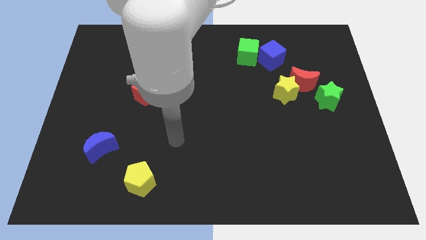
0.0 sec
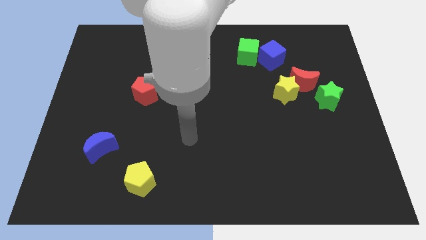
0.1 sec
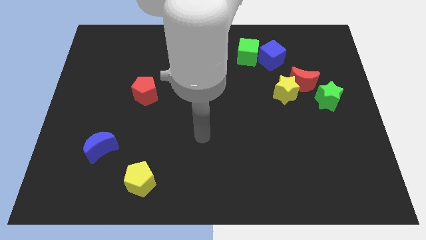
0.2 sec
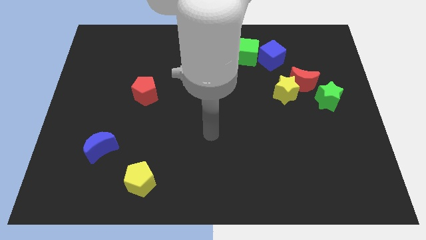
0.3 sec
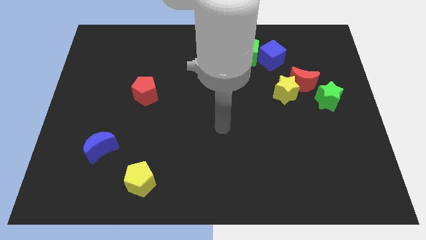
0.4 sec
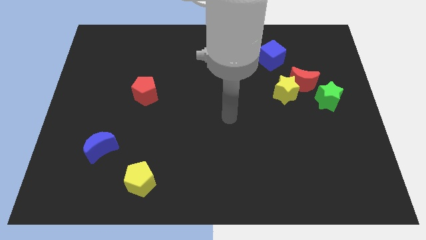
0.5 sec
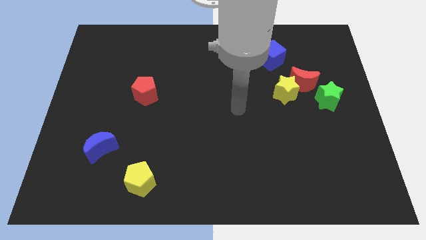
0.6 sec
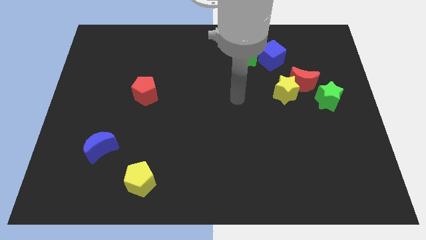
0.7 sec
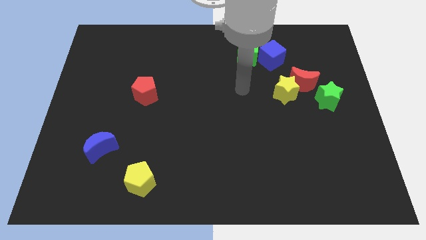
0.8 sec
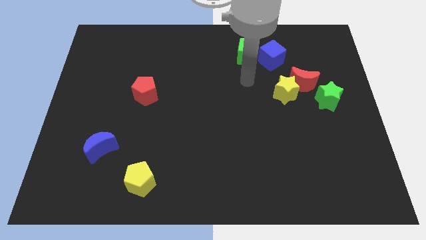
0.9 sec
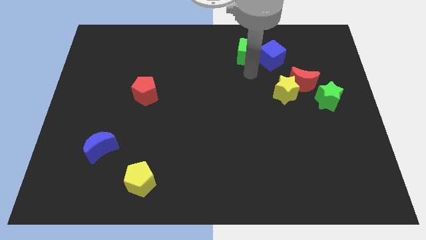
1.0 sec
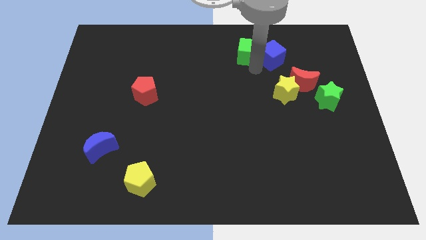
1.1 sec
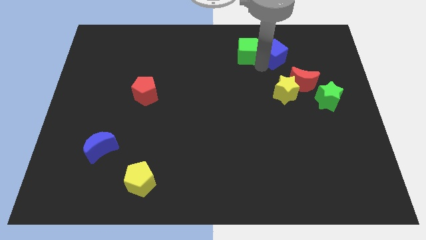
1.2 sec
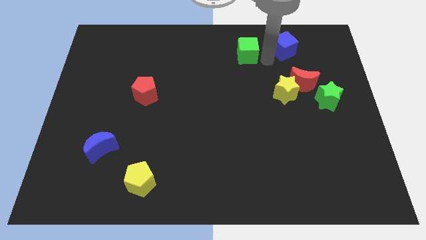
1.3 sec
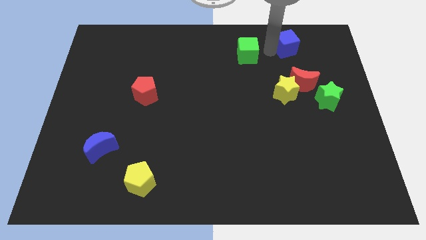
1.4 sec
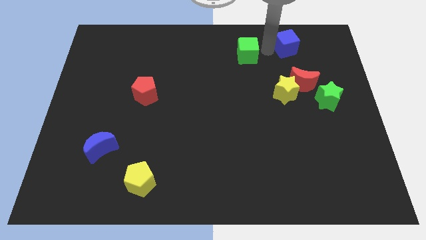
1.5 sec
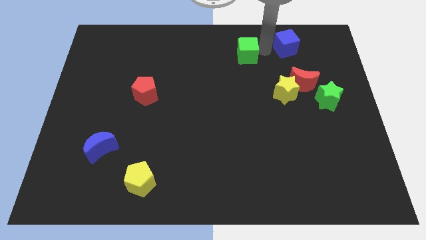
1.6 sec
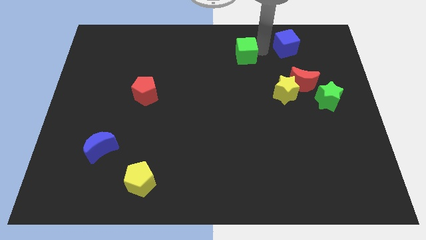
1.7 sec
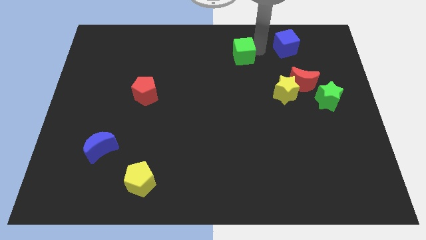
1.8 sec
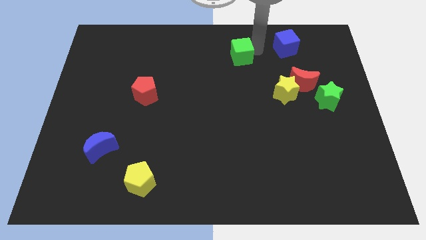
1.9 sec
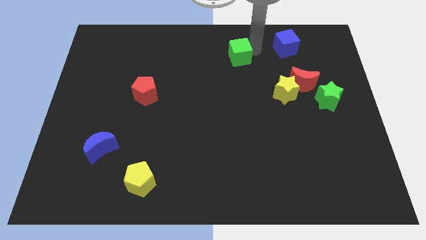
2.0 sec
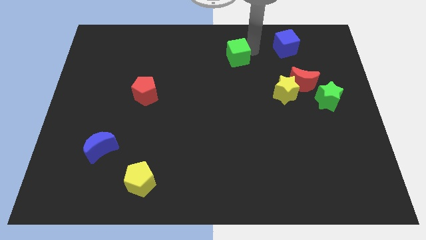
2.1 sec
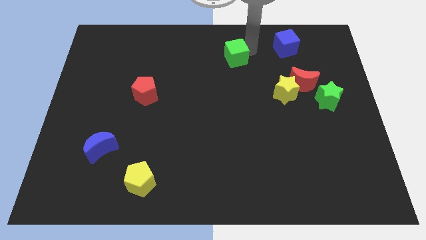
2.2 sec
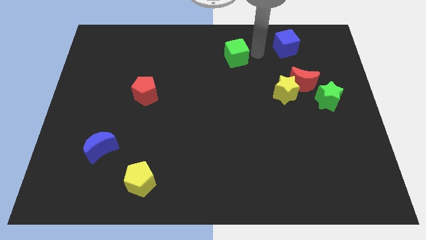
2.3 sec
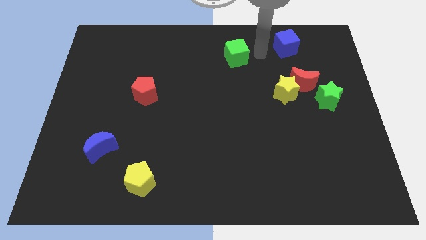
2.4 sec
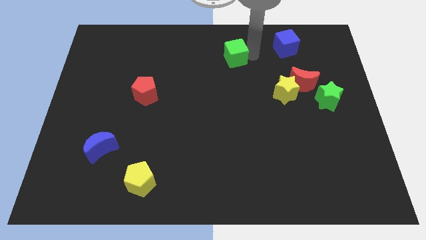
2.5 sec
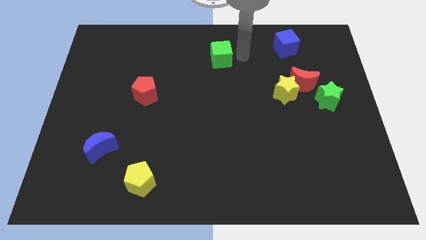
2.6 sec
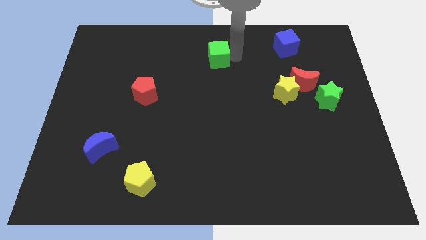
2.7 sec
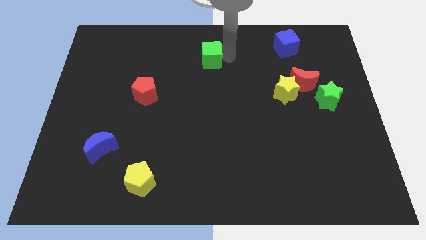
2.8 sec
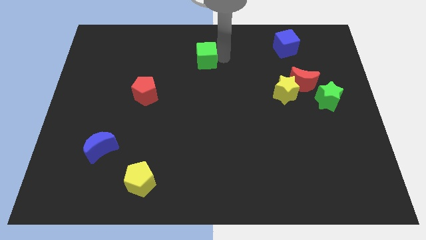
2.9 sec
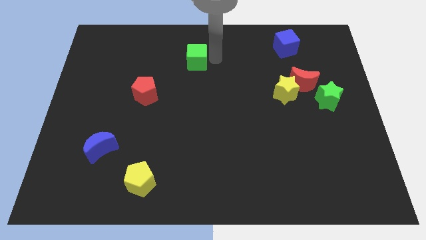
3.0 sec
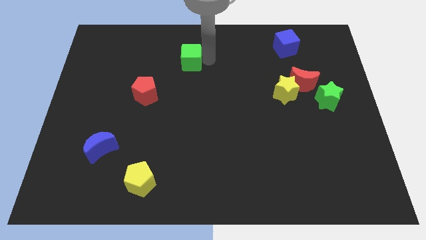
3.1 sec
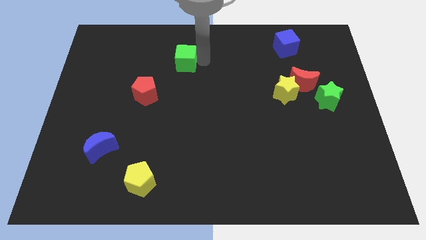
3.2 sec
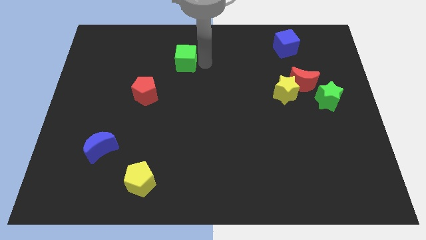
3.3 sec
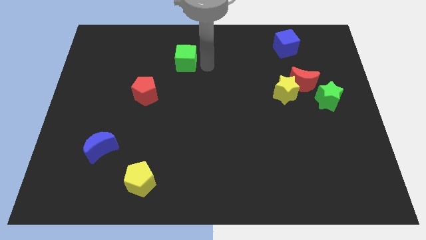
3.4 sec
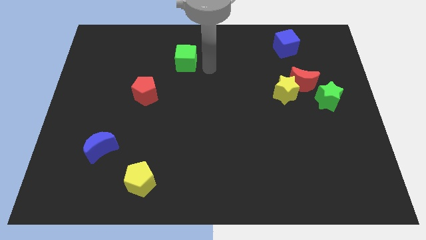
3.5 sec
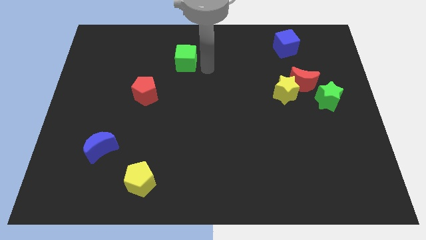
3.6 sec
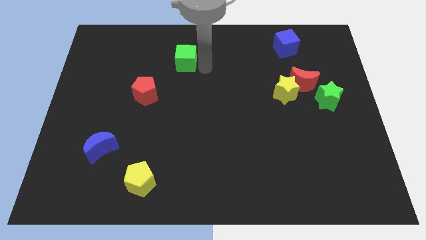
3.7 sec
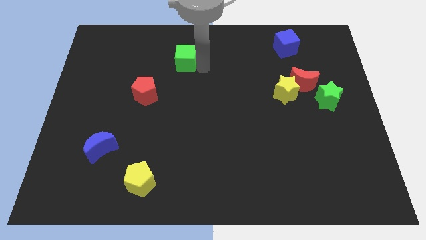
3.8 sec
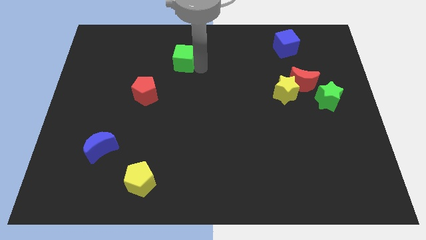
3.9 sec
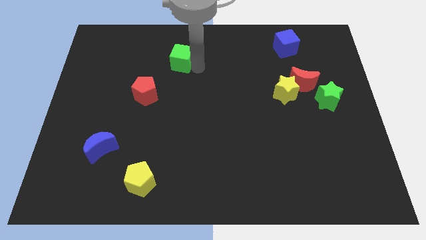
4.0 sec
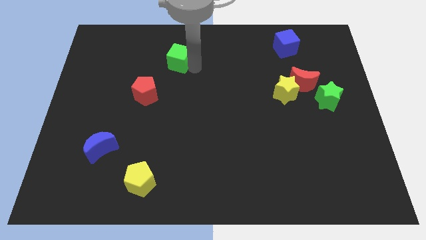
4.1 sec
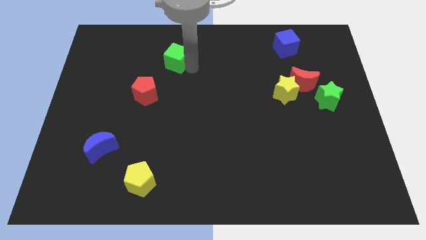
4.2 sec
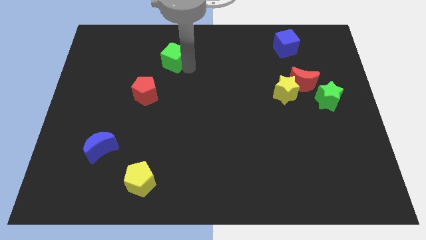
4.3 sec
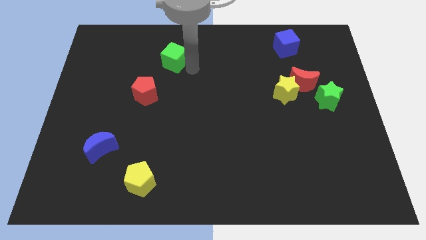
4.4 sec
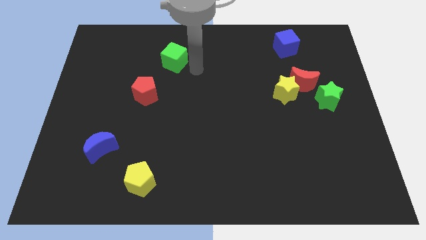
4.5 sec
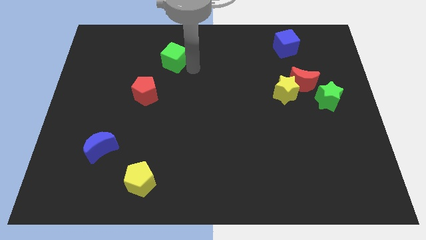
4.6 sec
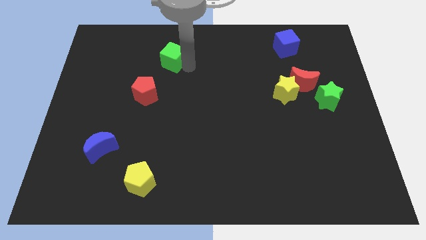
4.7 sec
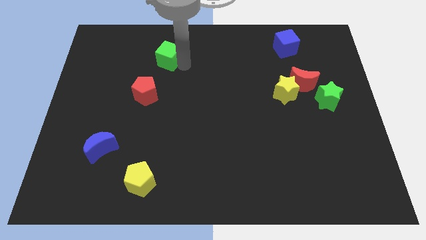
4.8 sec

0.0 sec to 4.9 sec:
push the green cube left

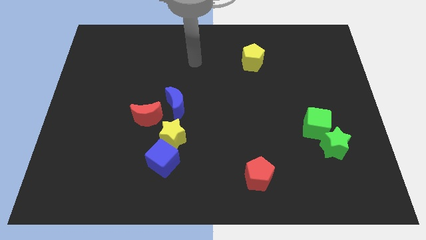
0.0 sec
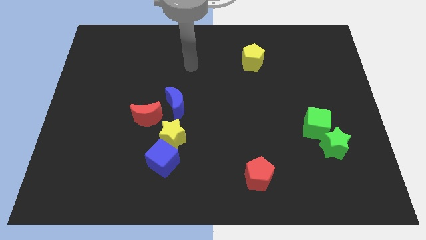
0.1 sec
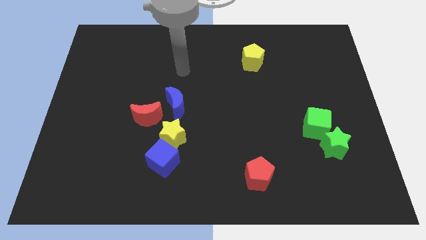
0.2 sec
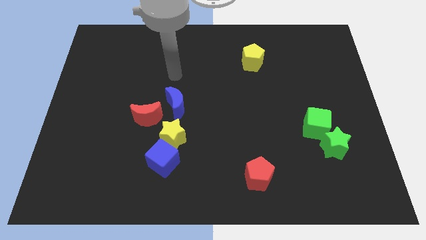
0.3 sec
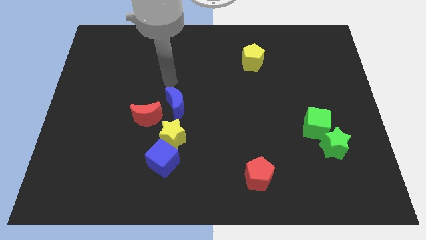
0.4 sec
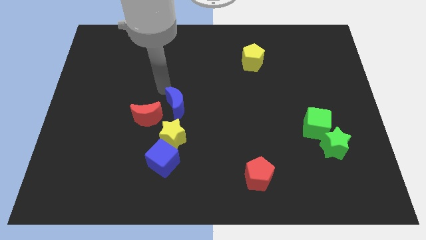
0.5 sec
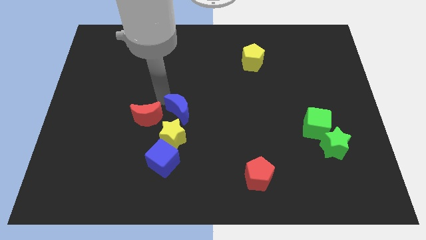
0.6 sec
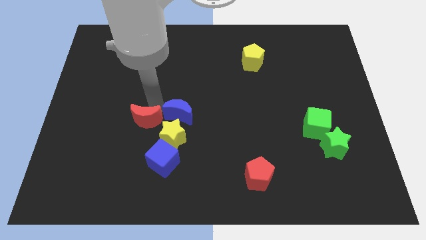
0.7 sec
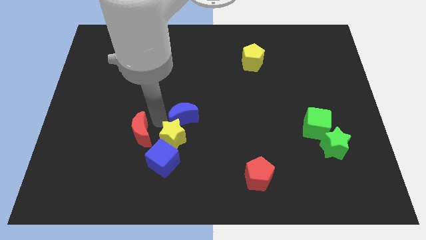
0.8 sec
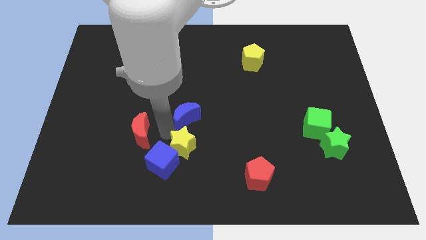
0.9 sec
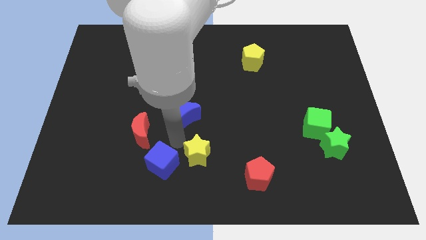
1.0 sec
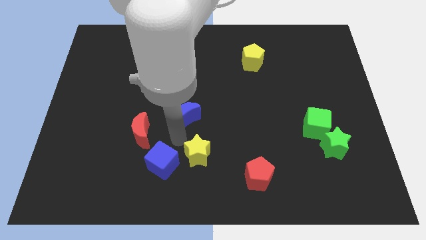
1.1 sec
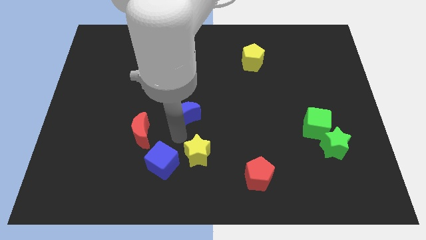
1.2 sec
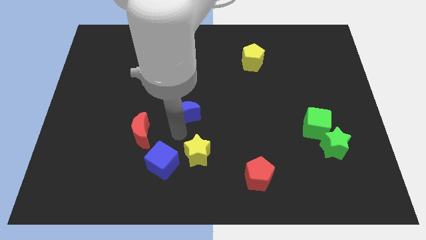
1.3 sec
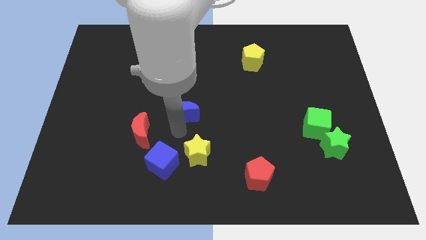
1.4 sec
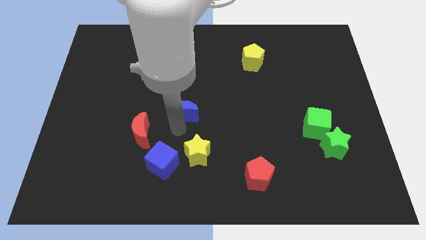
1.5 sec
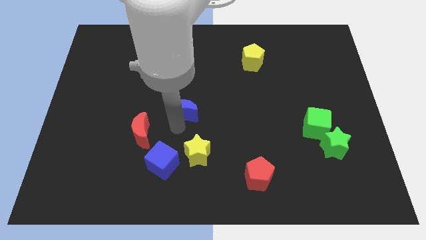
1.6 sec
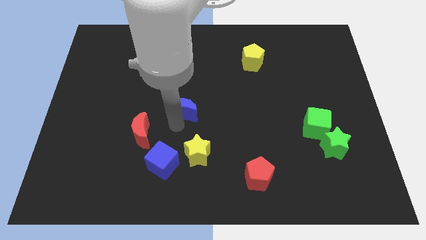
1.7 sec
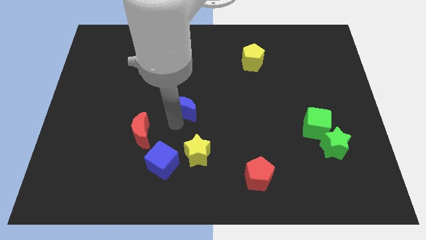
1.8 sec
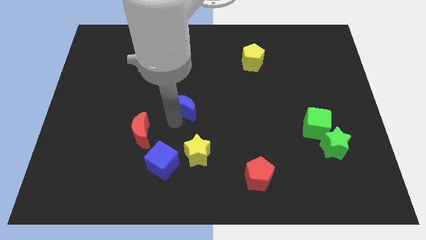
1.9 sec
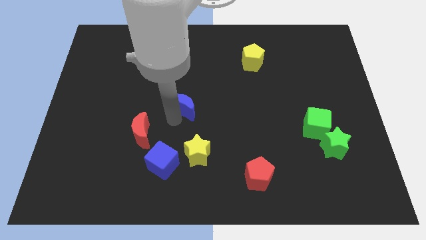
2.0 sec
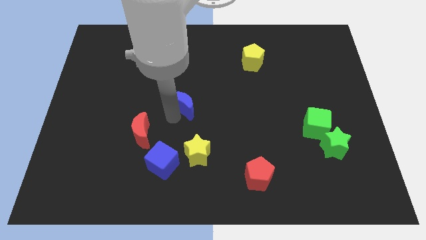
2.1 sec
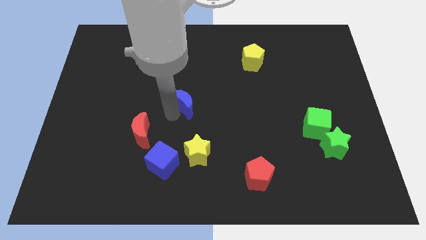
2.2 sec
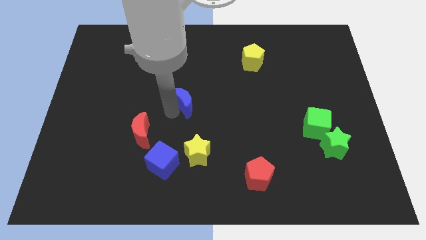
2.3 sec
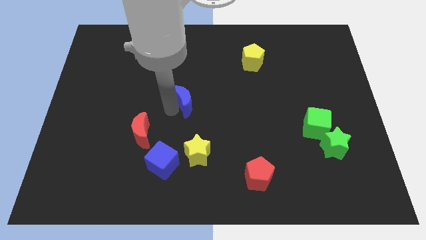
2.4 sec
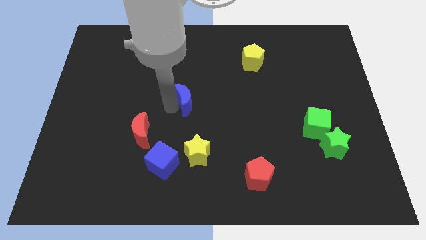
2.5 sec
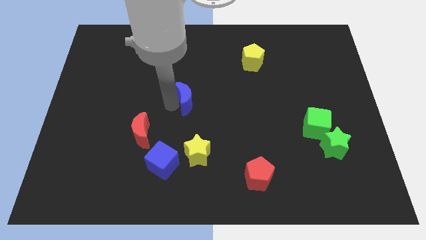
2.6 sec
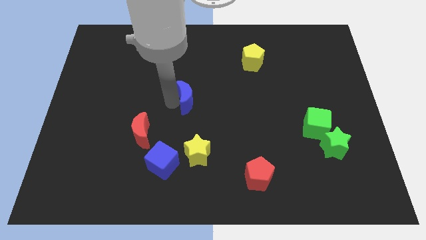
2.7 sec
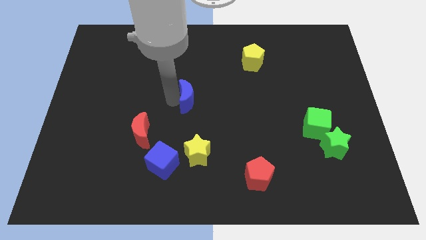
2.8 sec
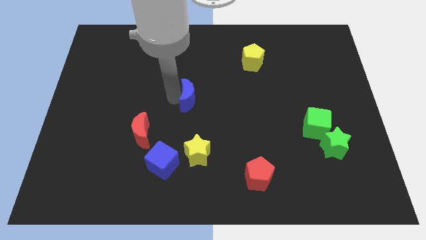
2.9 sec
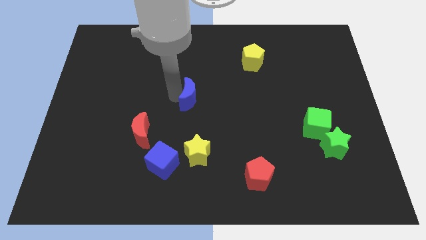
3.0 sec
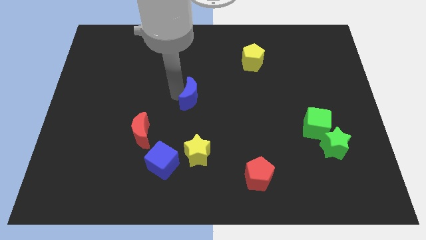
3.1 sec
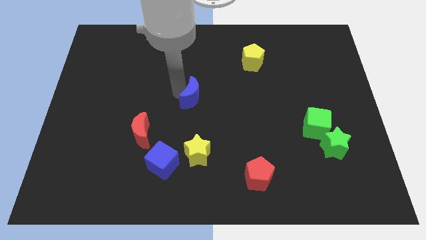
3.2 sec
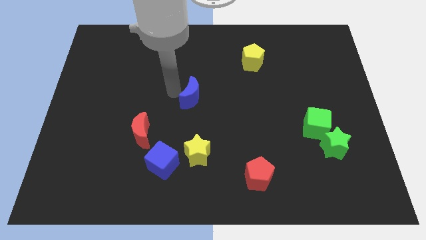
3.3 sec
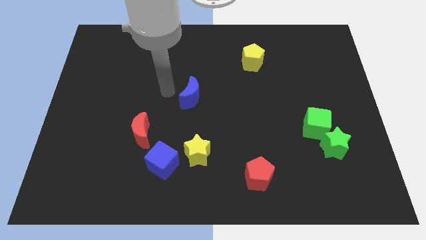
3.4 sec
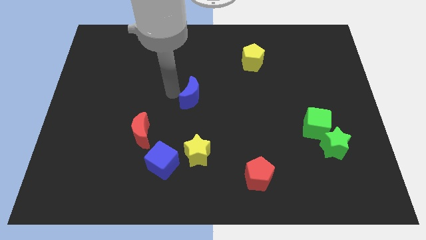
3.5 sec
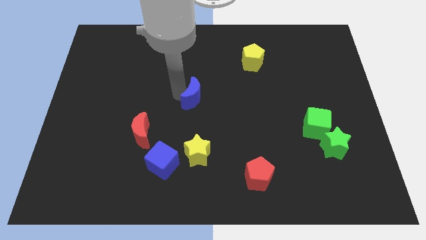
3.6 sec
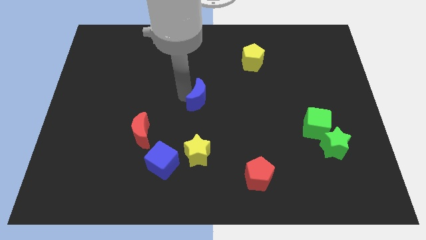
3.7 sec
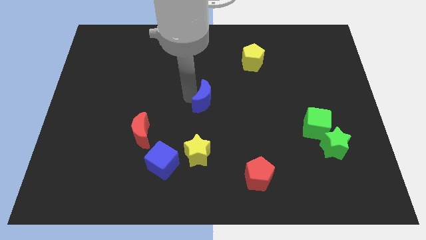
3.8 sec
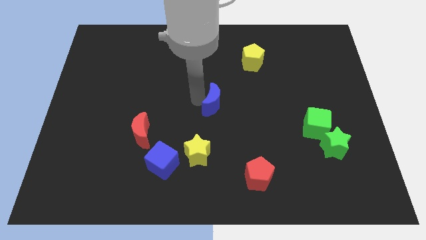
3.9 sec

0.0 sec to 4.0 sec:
move the blue moon right somewhat
